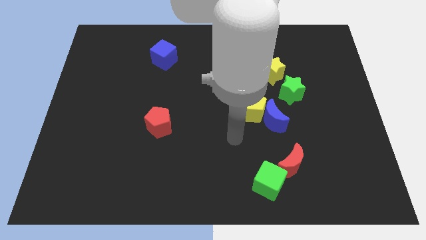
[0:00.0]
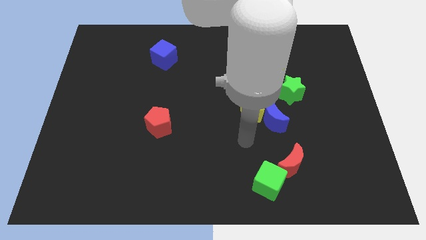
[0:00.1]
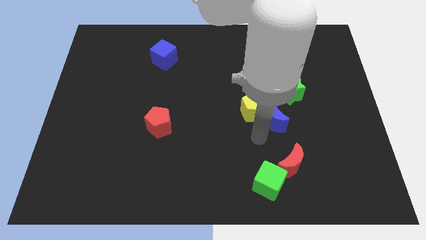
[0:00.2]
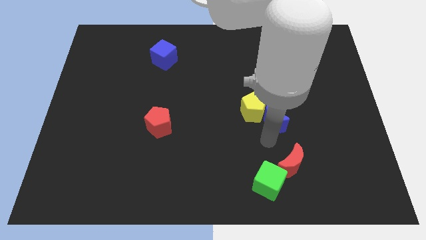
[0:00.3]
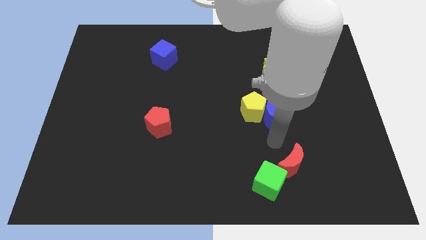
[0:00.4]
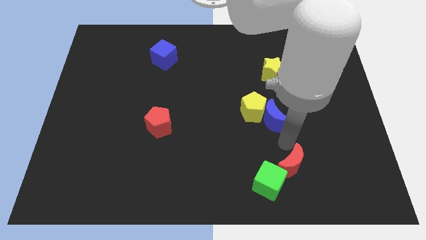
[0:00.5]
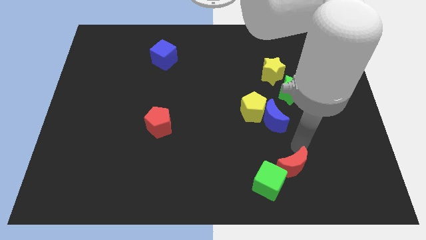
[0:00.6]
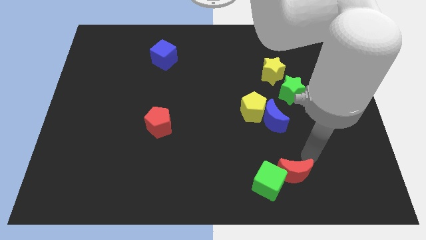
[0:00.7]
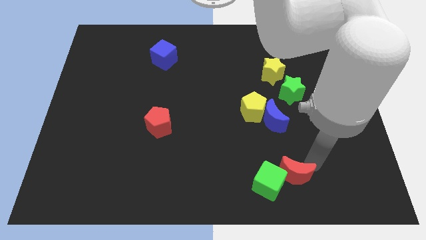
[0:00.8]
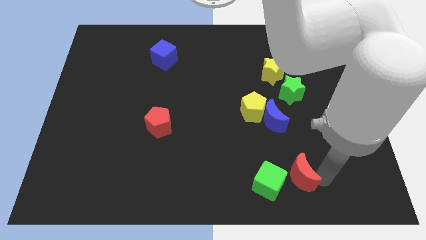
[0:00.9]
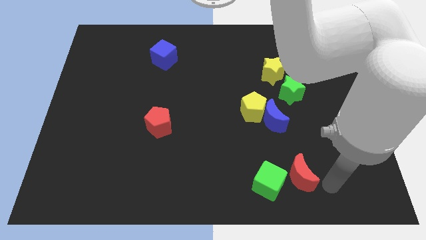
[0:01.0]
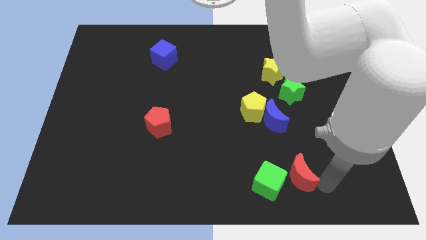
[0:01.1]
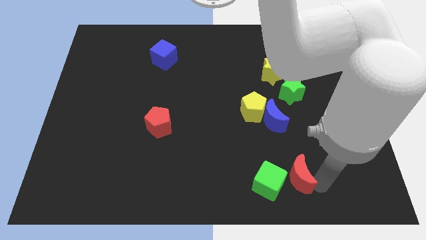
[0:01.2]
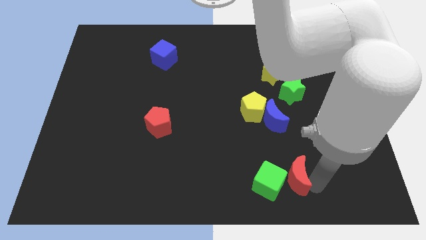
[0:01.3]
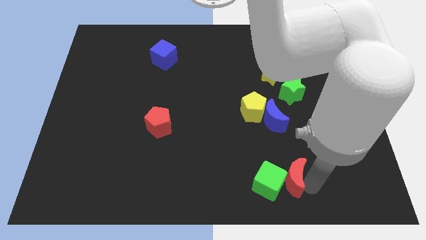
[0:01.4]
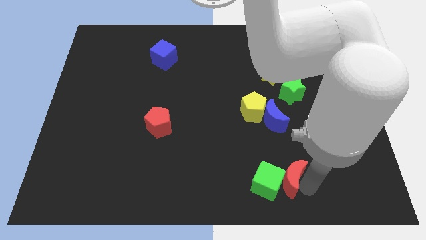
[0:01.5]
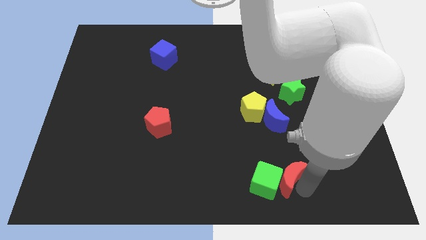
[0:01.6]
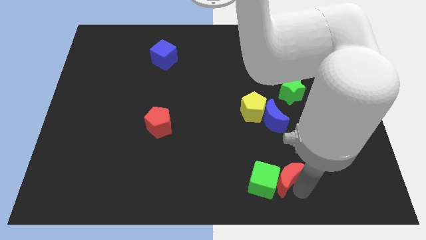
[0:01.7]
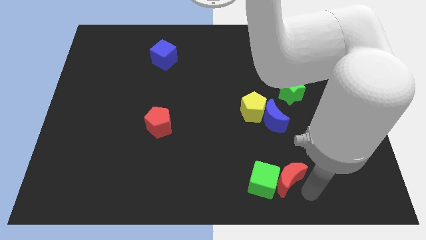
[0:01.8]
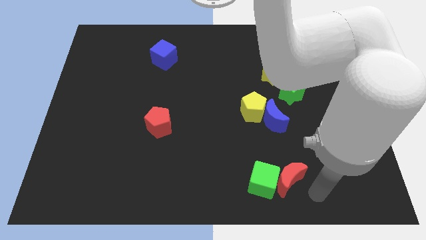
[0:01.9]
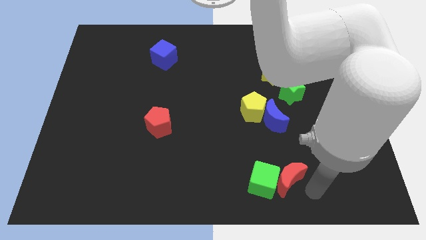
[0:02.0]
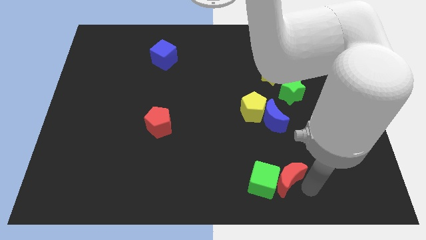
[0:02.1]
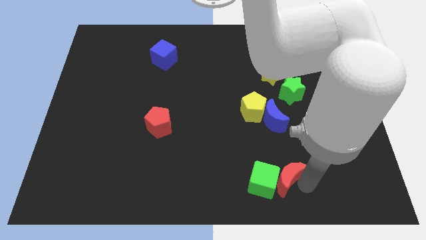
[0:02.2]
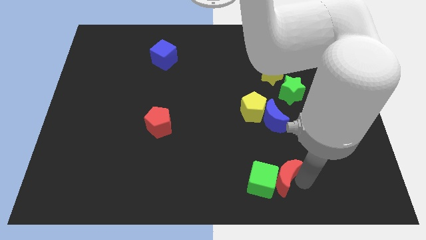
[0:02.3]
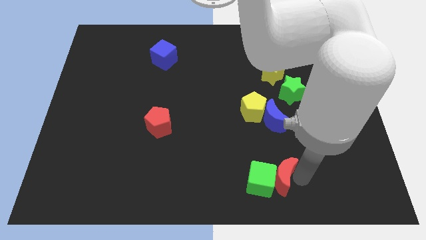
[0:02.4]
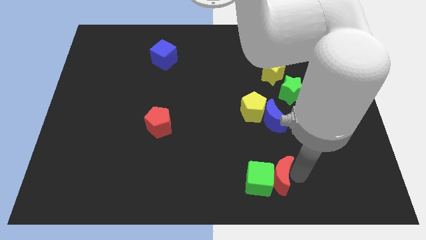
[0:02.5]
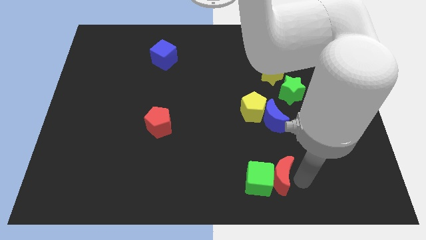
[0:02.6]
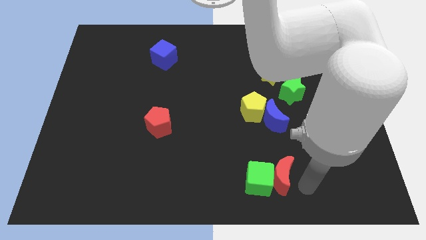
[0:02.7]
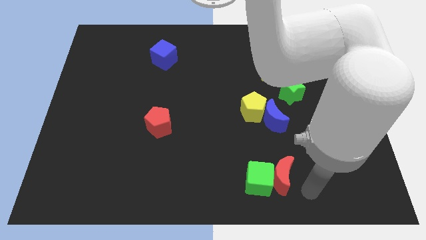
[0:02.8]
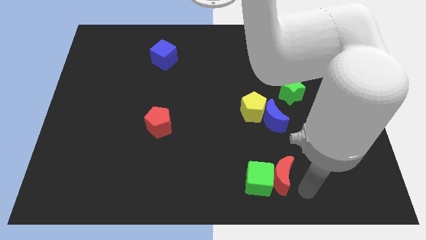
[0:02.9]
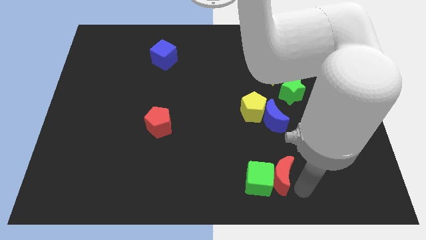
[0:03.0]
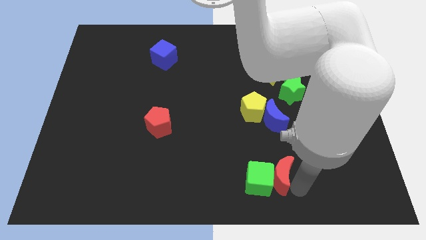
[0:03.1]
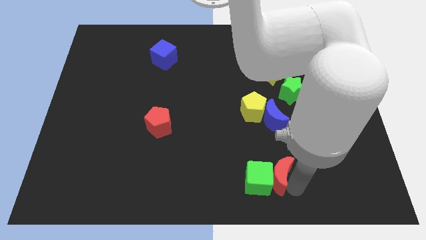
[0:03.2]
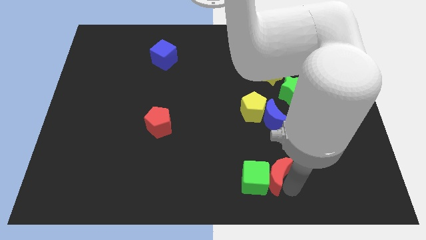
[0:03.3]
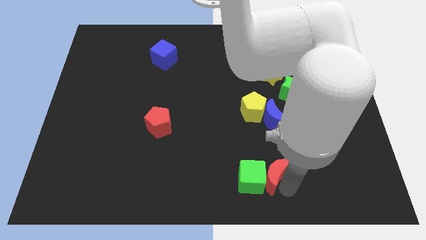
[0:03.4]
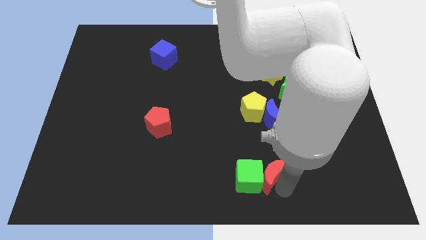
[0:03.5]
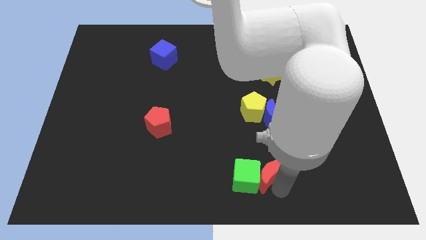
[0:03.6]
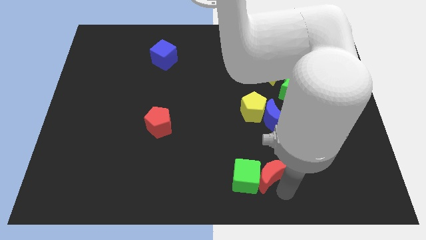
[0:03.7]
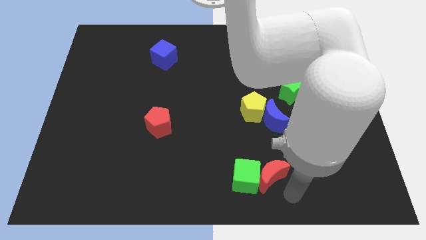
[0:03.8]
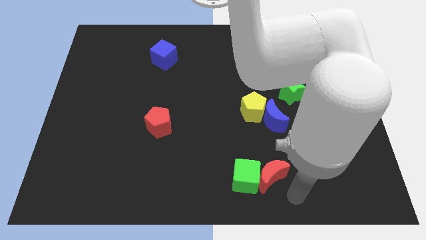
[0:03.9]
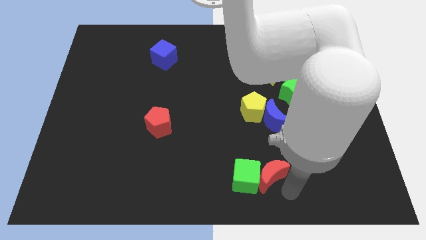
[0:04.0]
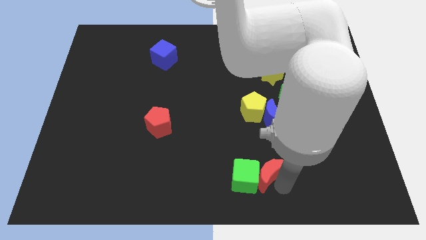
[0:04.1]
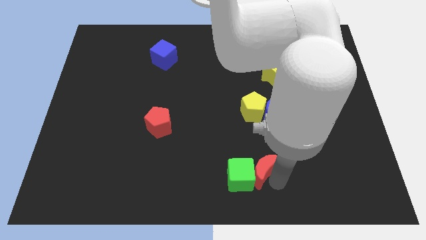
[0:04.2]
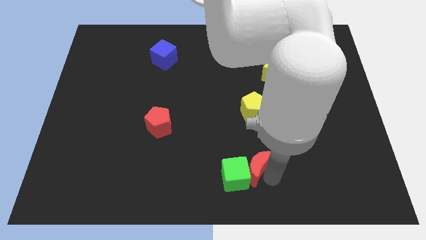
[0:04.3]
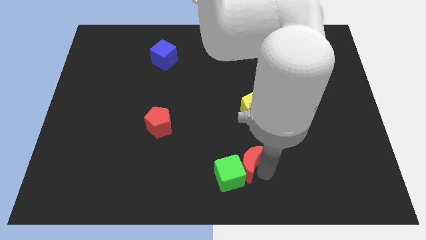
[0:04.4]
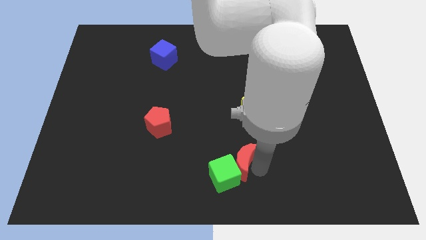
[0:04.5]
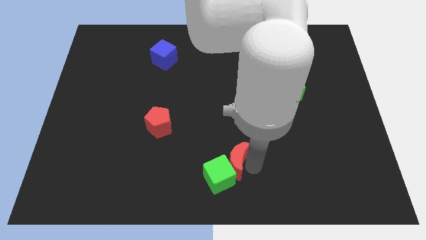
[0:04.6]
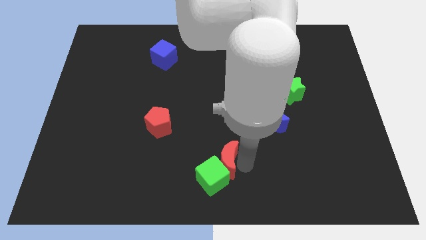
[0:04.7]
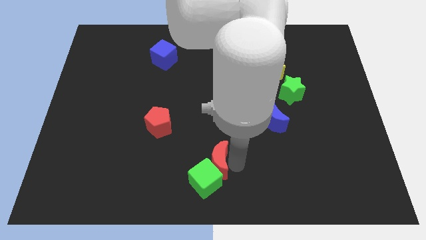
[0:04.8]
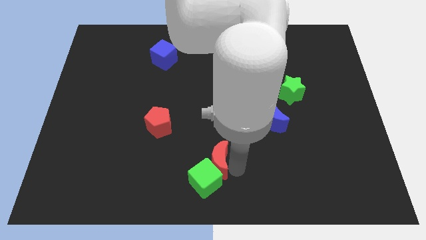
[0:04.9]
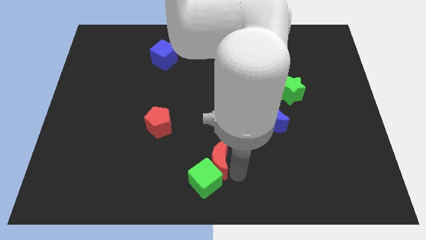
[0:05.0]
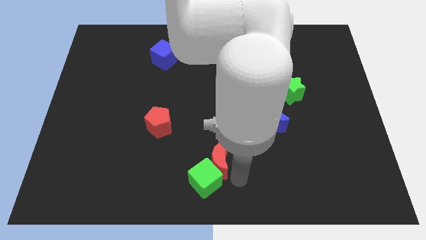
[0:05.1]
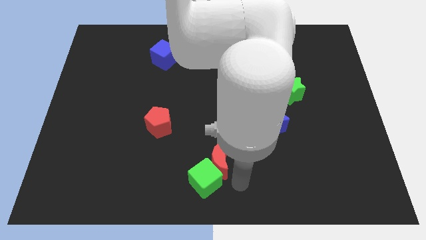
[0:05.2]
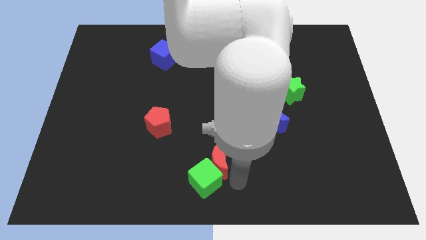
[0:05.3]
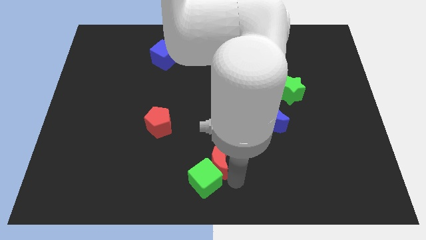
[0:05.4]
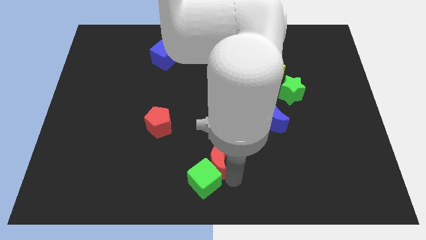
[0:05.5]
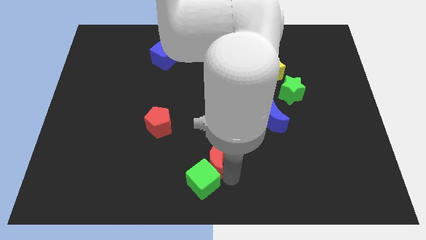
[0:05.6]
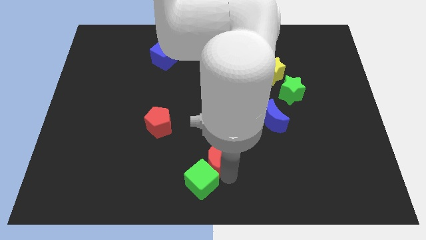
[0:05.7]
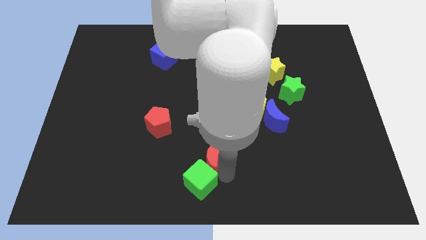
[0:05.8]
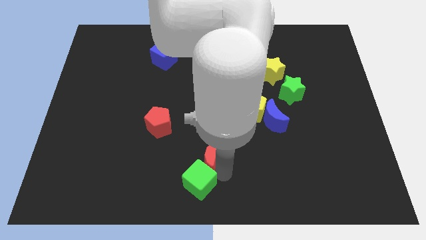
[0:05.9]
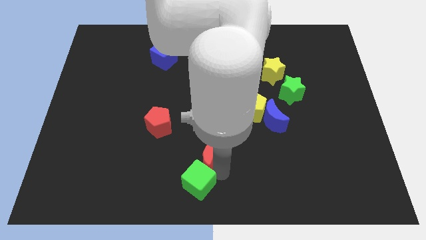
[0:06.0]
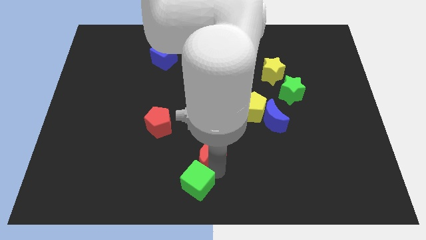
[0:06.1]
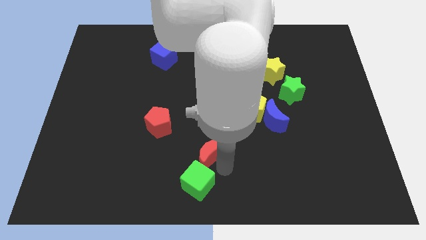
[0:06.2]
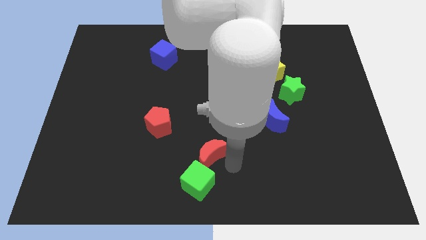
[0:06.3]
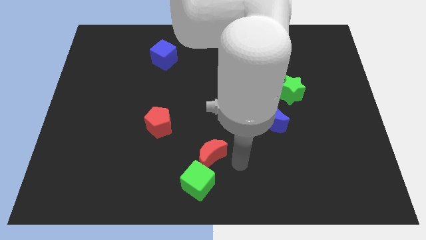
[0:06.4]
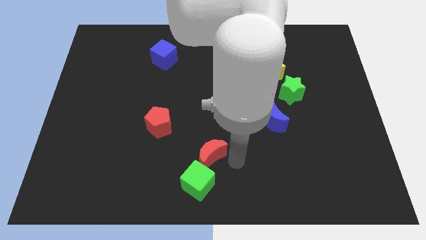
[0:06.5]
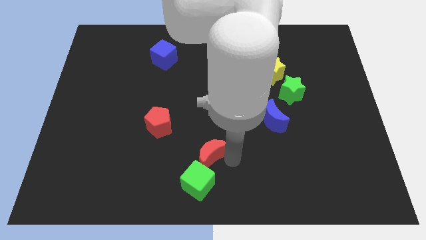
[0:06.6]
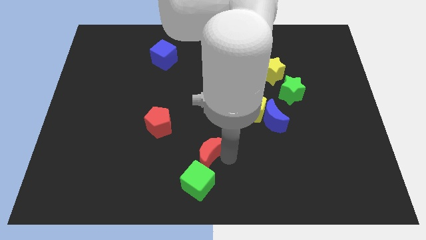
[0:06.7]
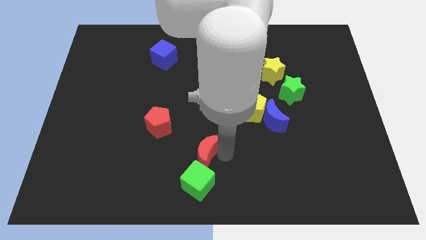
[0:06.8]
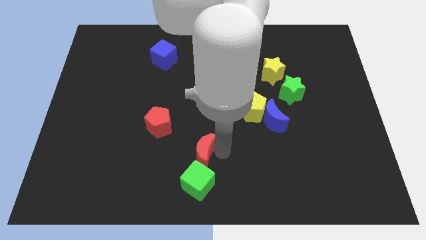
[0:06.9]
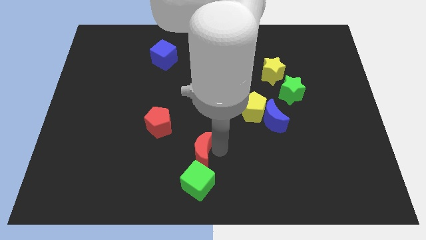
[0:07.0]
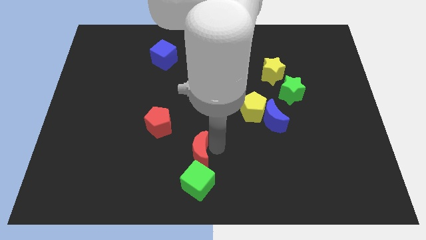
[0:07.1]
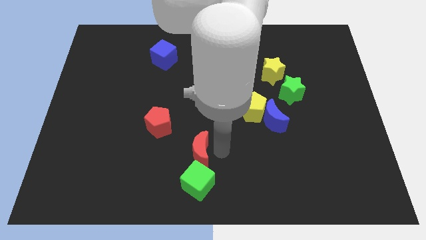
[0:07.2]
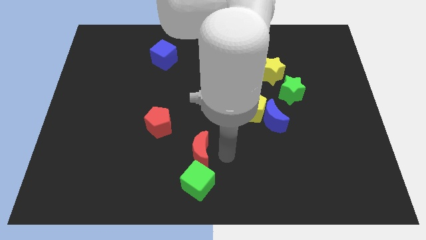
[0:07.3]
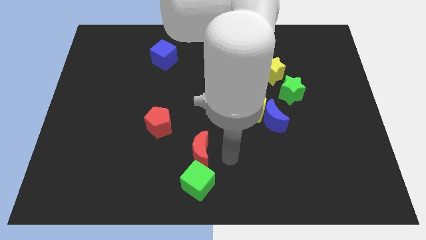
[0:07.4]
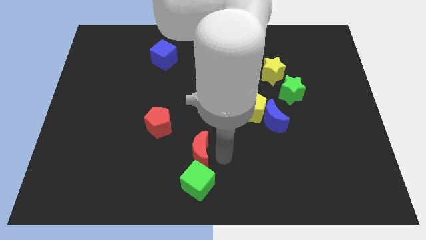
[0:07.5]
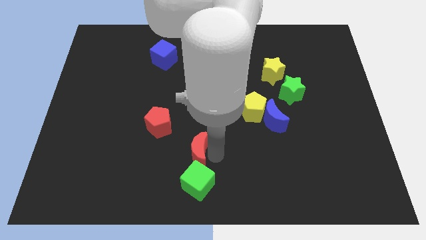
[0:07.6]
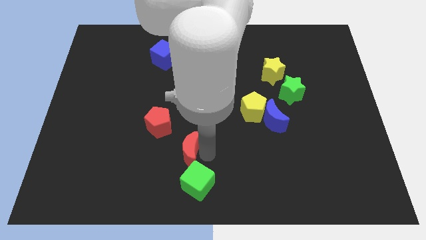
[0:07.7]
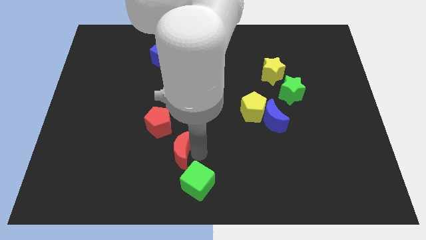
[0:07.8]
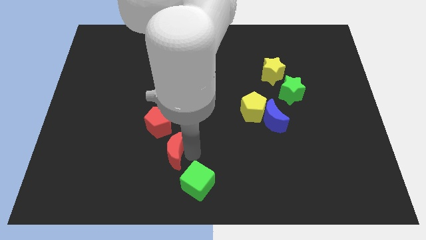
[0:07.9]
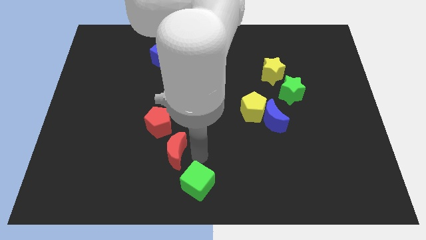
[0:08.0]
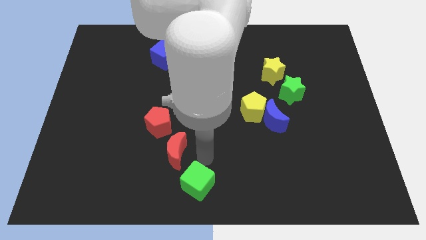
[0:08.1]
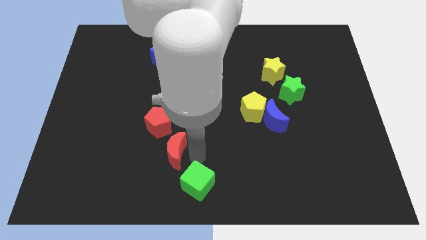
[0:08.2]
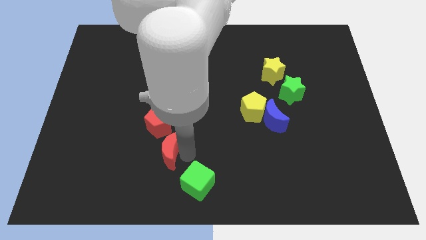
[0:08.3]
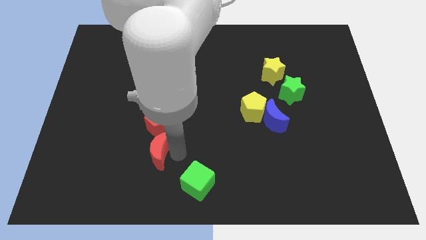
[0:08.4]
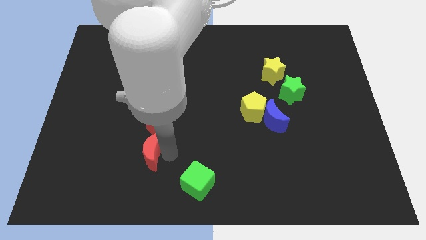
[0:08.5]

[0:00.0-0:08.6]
put the red moon to the bottom left of the red pentagon
